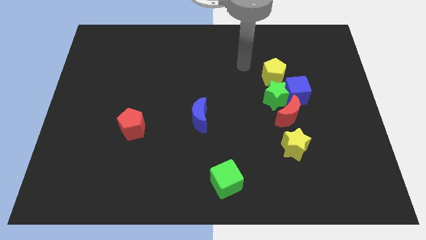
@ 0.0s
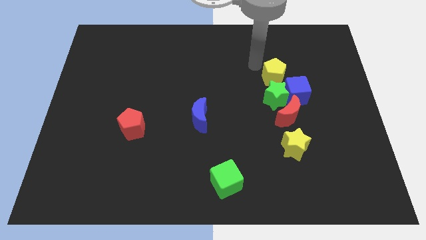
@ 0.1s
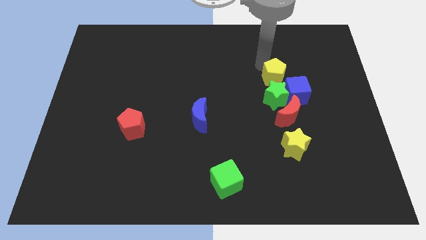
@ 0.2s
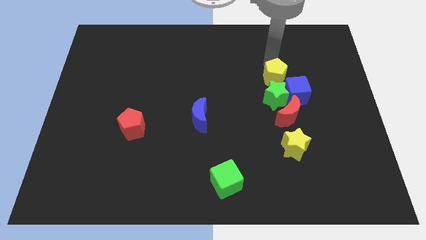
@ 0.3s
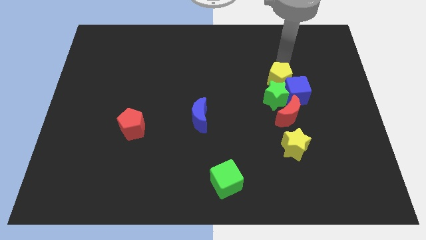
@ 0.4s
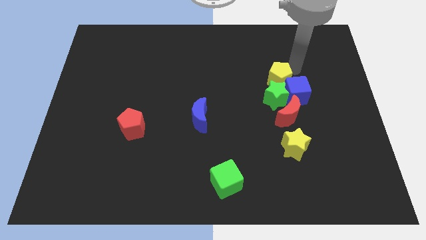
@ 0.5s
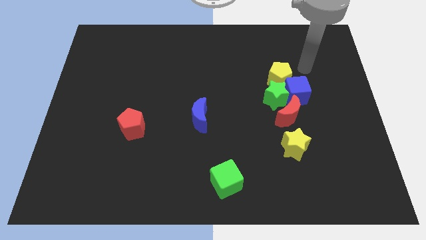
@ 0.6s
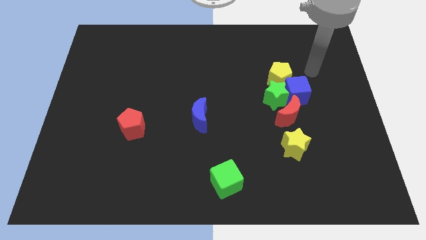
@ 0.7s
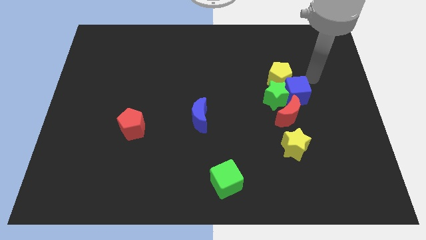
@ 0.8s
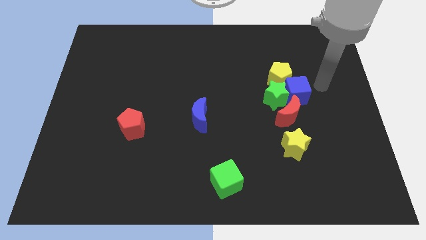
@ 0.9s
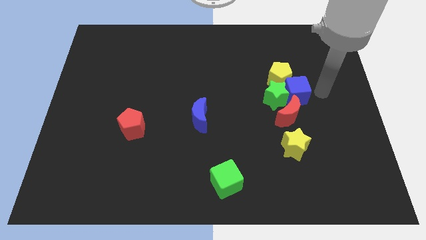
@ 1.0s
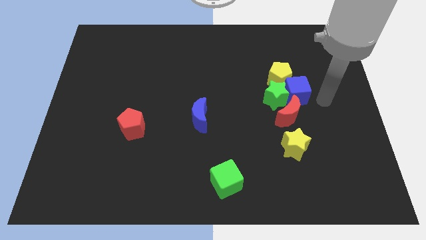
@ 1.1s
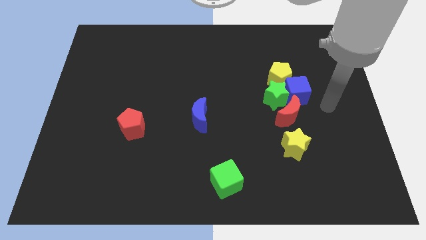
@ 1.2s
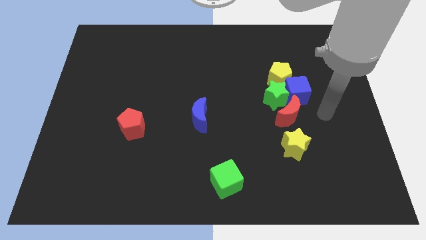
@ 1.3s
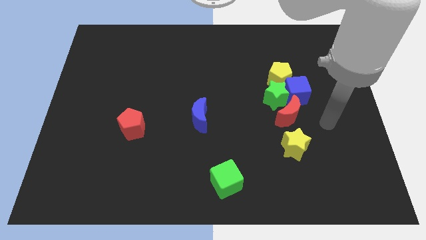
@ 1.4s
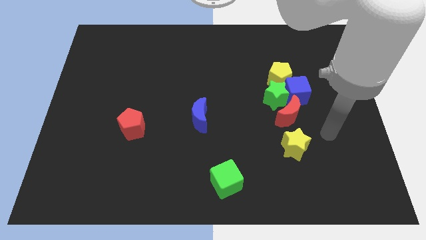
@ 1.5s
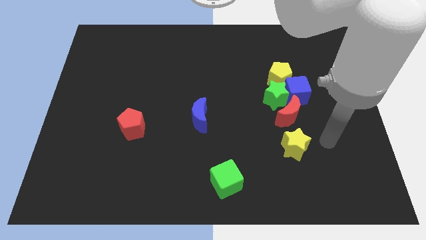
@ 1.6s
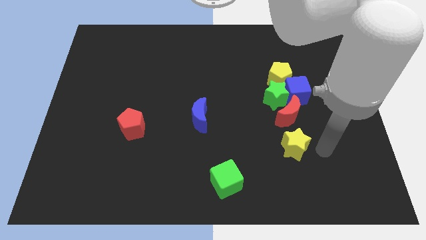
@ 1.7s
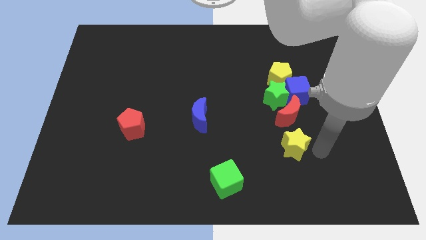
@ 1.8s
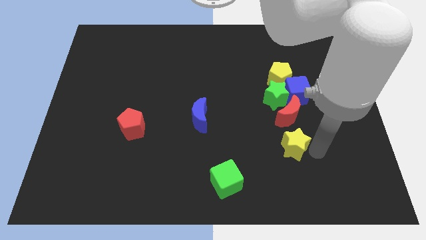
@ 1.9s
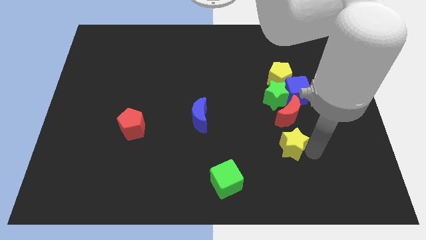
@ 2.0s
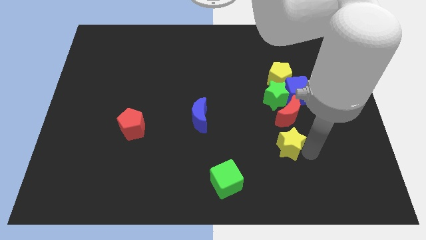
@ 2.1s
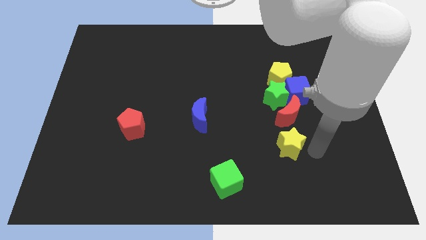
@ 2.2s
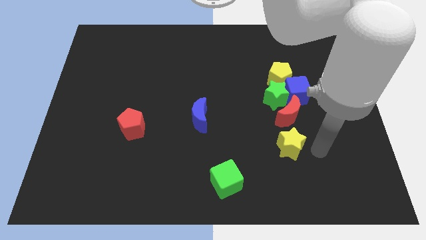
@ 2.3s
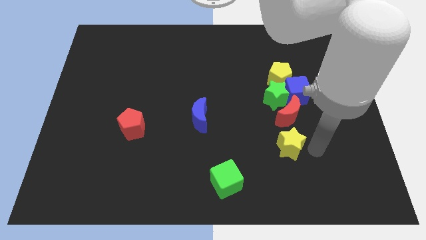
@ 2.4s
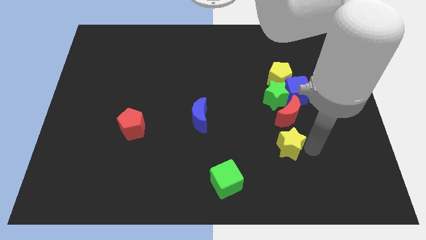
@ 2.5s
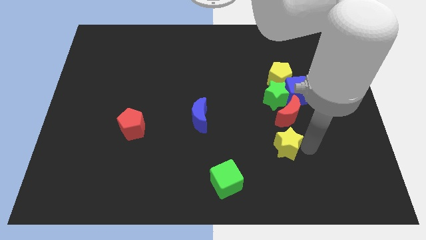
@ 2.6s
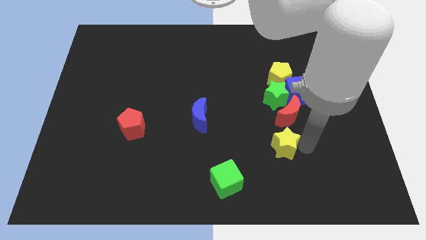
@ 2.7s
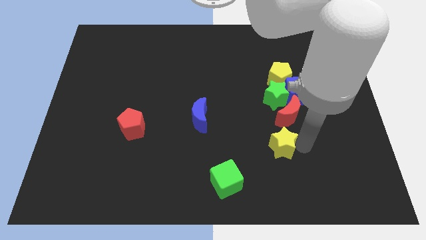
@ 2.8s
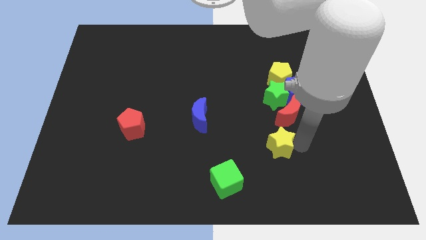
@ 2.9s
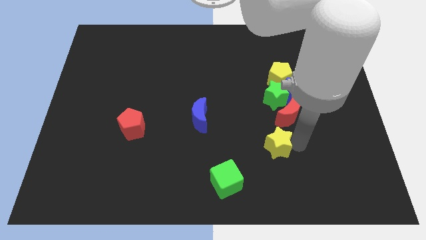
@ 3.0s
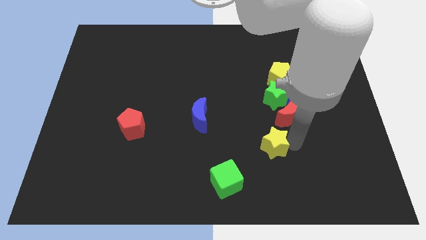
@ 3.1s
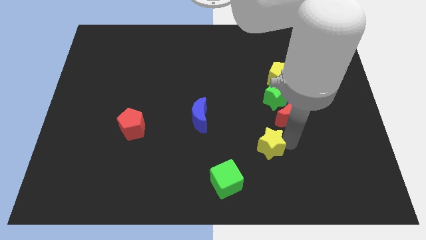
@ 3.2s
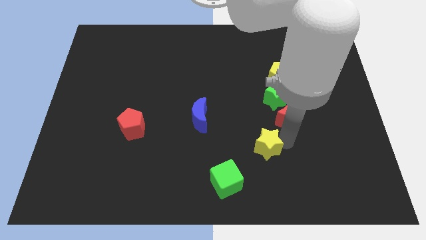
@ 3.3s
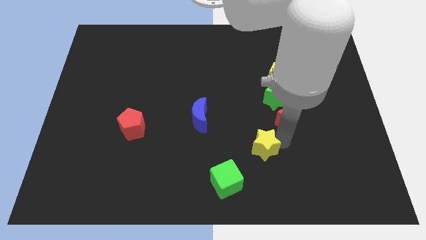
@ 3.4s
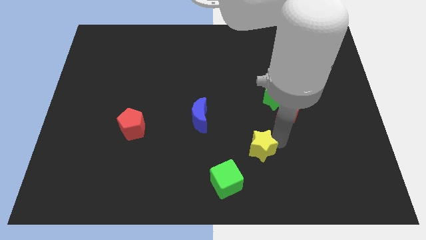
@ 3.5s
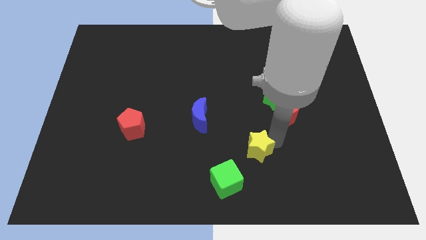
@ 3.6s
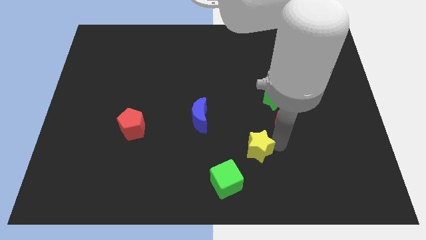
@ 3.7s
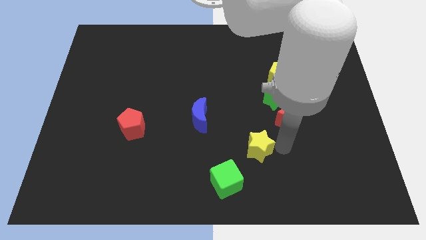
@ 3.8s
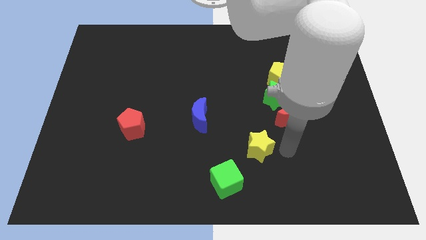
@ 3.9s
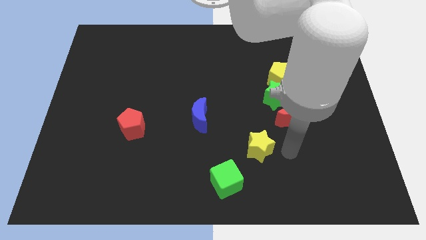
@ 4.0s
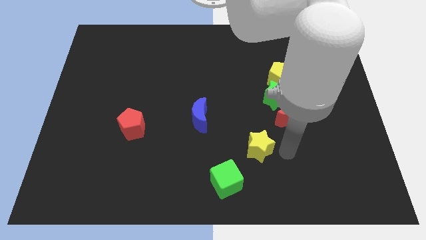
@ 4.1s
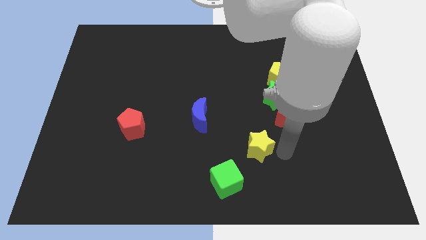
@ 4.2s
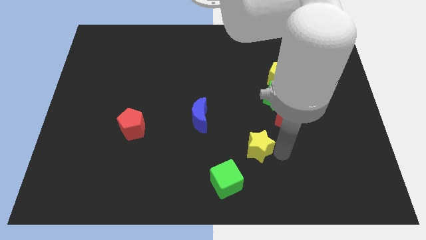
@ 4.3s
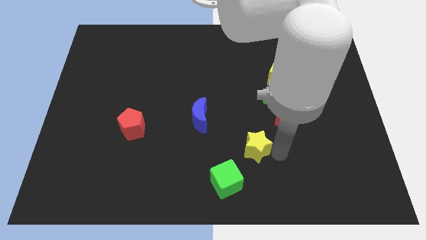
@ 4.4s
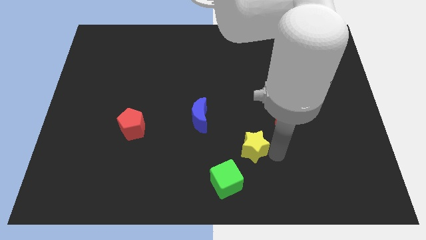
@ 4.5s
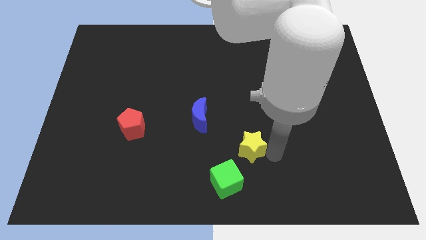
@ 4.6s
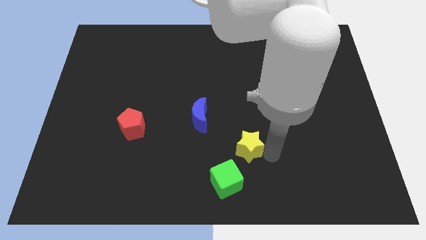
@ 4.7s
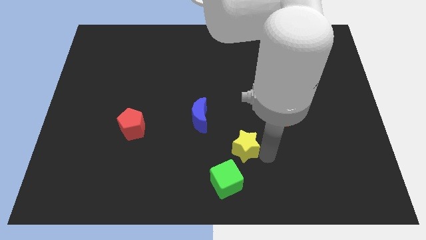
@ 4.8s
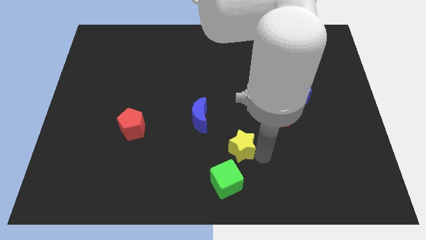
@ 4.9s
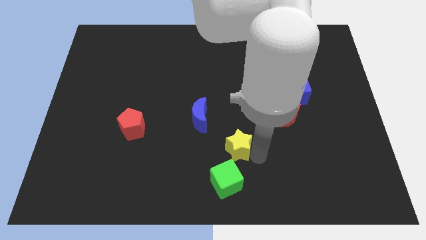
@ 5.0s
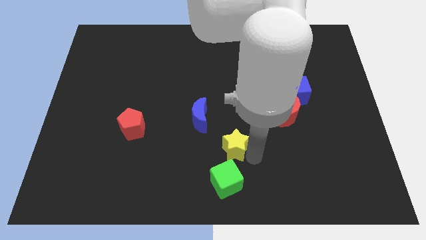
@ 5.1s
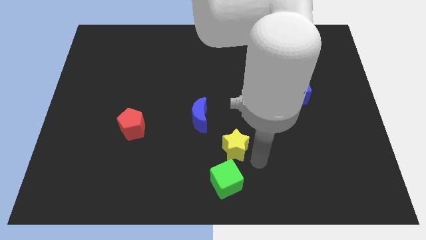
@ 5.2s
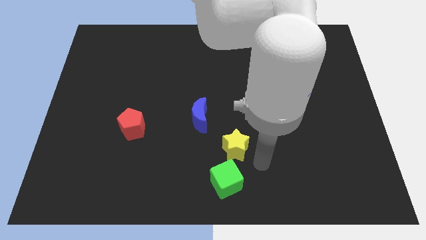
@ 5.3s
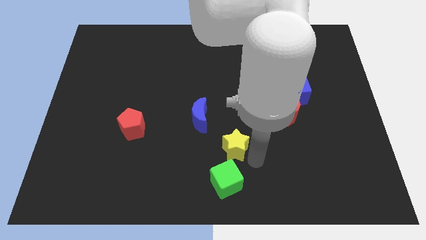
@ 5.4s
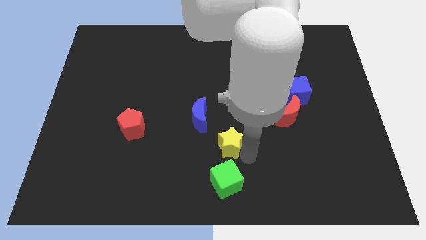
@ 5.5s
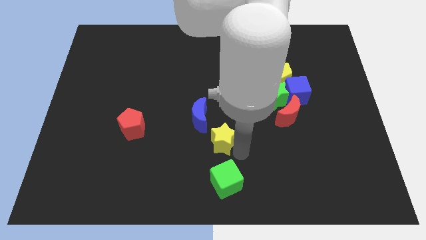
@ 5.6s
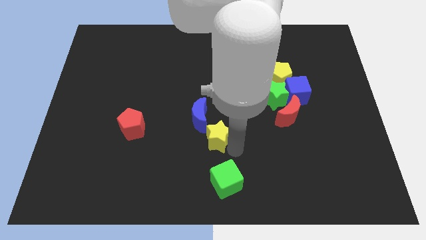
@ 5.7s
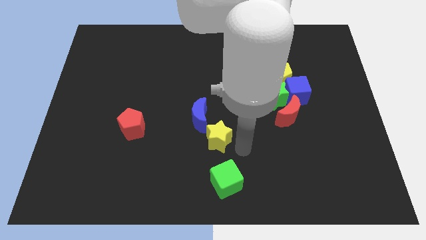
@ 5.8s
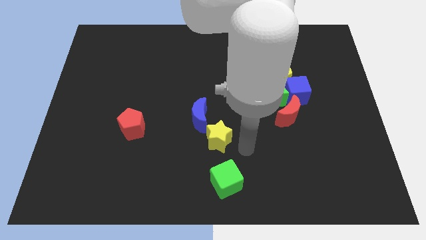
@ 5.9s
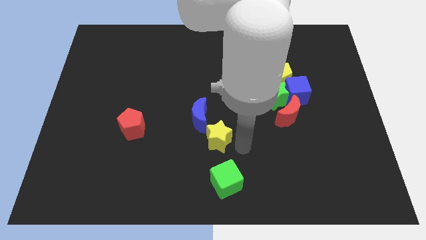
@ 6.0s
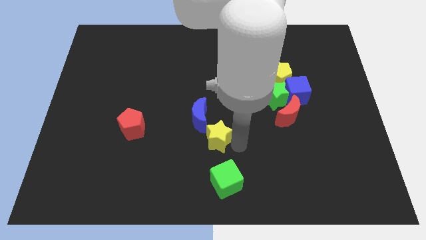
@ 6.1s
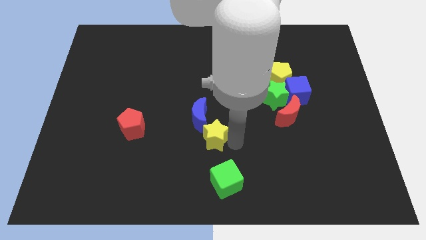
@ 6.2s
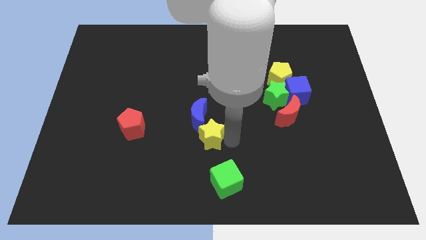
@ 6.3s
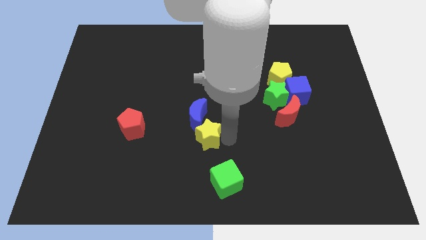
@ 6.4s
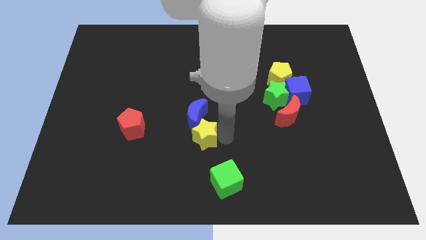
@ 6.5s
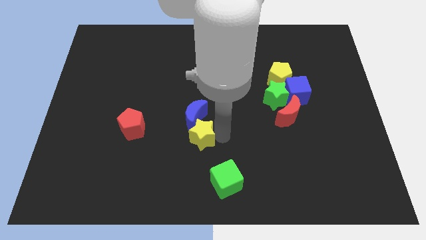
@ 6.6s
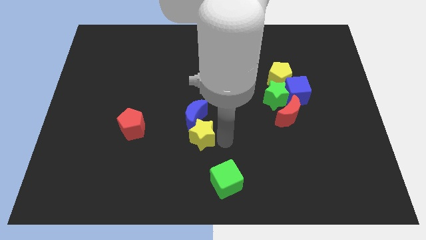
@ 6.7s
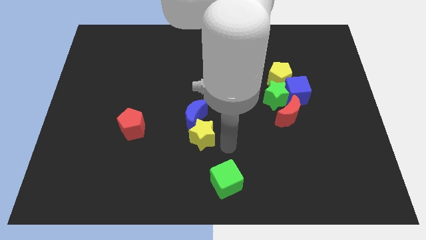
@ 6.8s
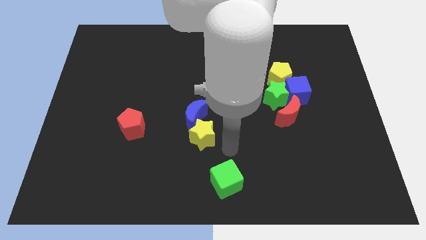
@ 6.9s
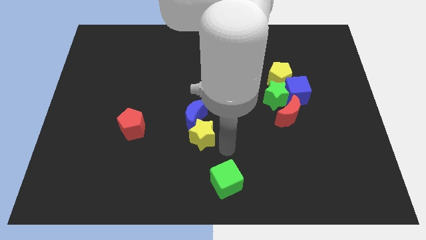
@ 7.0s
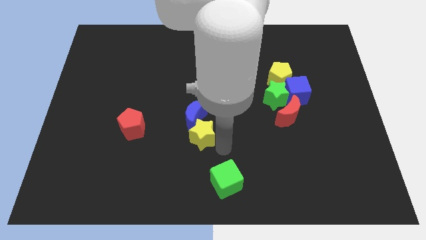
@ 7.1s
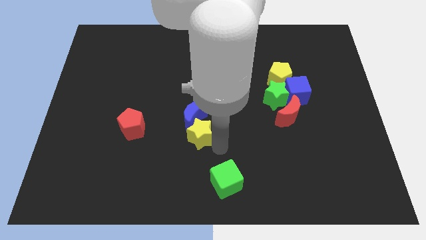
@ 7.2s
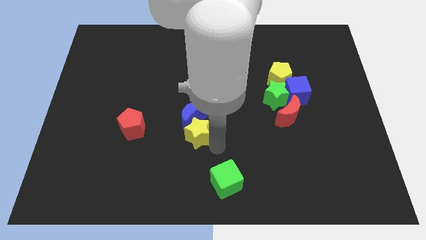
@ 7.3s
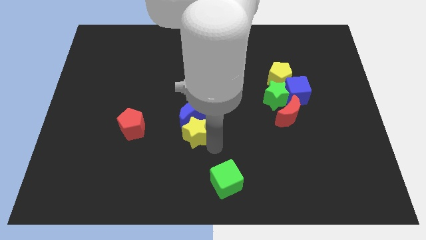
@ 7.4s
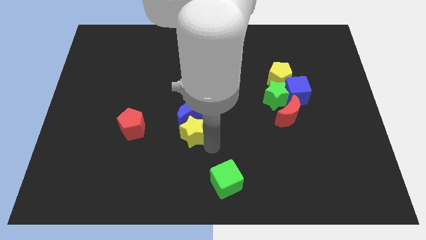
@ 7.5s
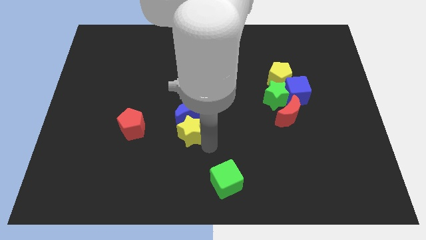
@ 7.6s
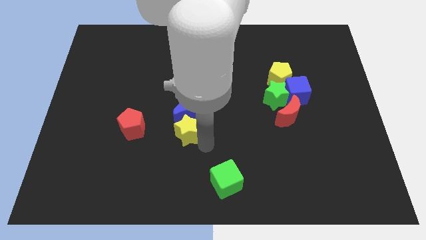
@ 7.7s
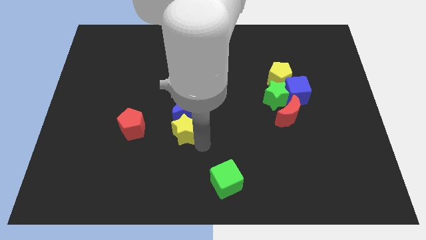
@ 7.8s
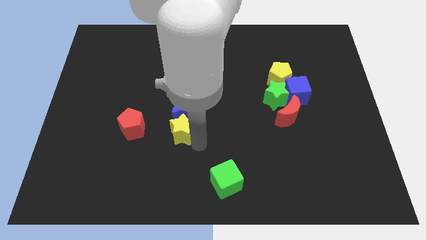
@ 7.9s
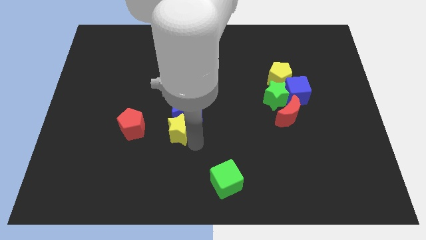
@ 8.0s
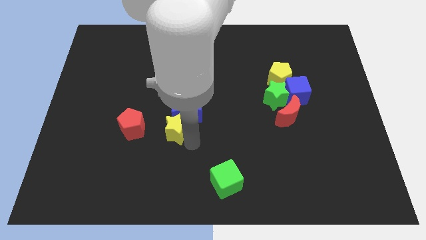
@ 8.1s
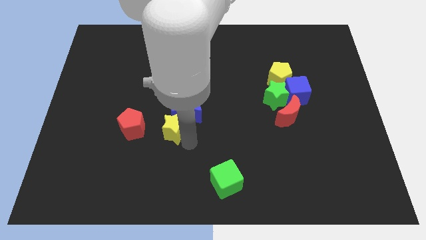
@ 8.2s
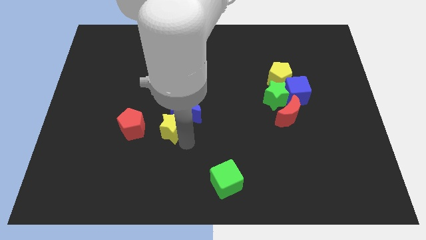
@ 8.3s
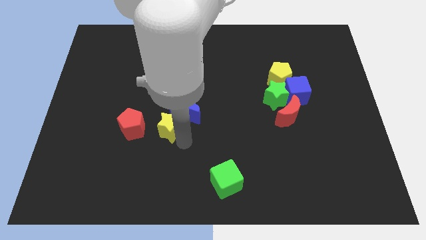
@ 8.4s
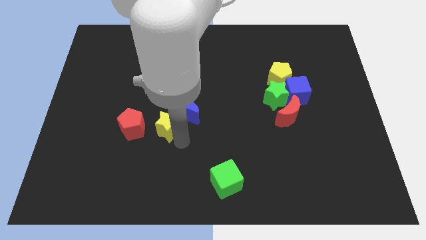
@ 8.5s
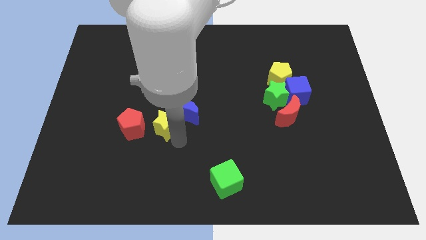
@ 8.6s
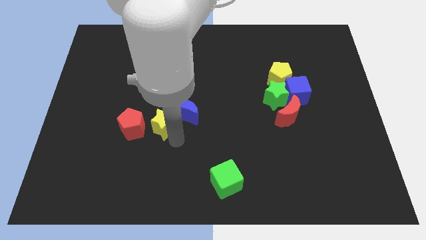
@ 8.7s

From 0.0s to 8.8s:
move the yellow star to the top right side of the red pentagon
